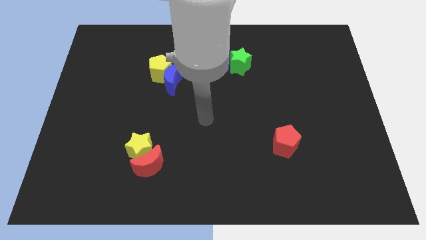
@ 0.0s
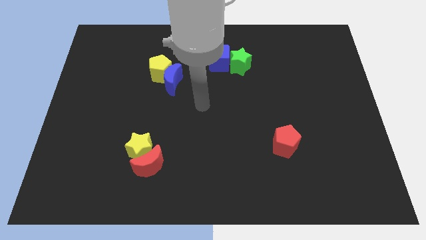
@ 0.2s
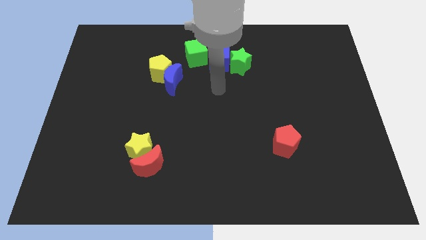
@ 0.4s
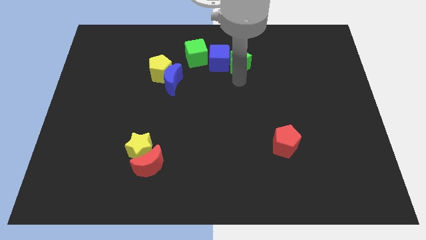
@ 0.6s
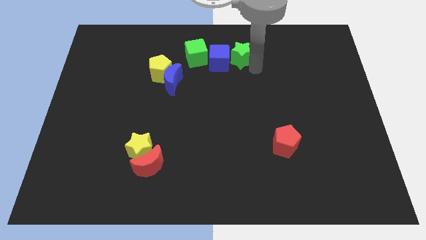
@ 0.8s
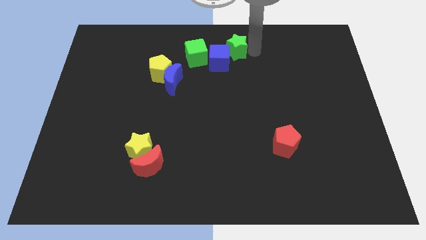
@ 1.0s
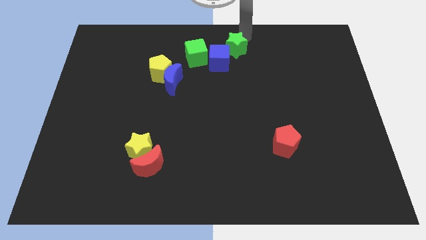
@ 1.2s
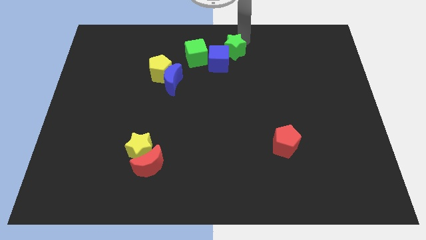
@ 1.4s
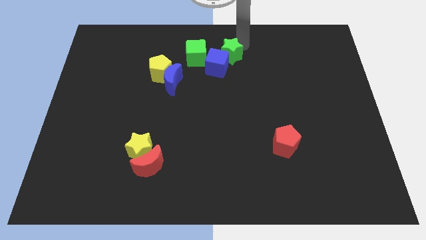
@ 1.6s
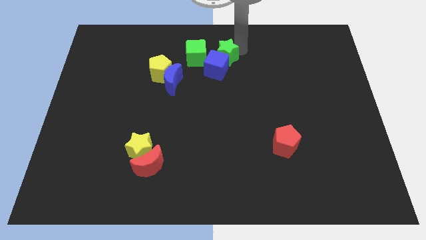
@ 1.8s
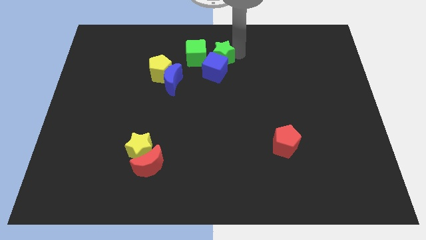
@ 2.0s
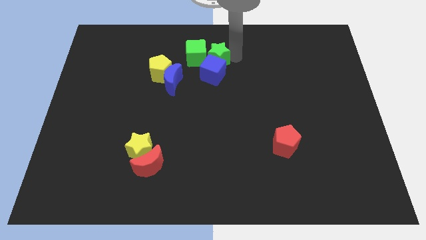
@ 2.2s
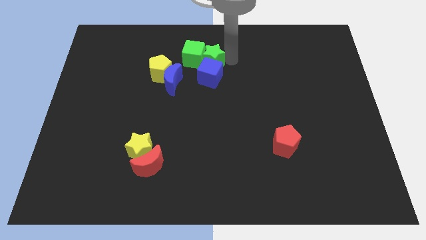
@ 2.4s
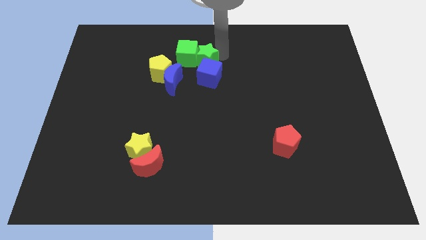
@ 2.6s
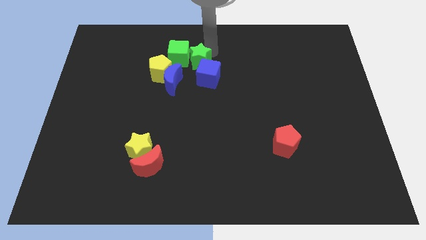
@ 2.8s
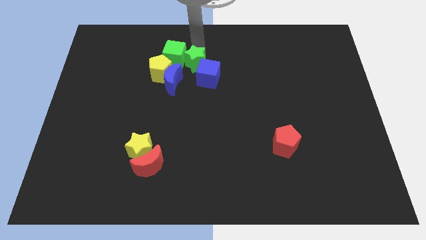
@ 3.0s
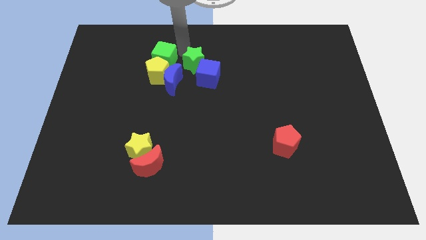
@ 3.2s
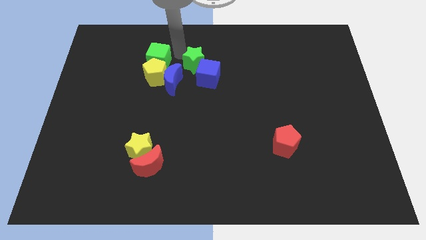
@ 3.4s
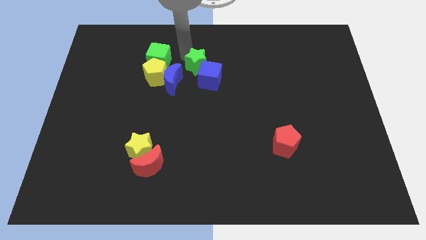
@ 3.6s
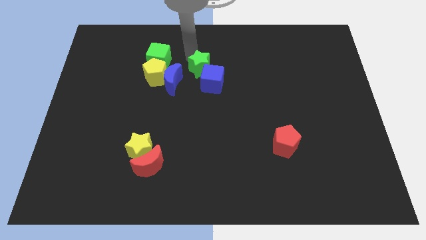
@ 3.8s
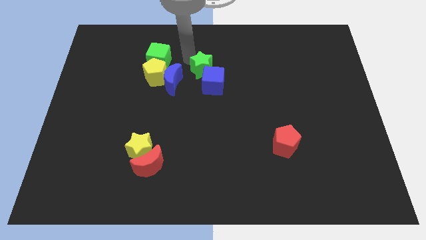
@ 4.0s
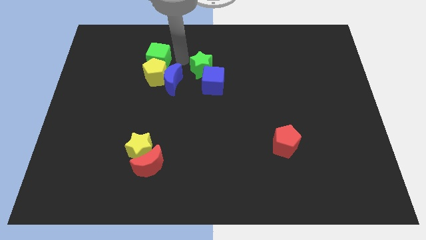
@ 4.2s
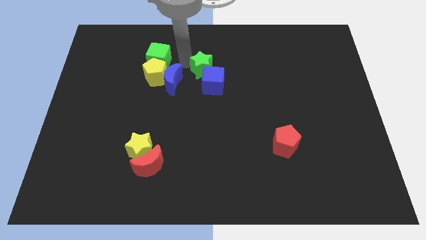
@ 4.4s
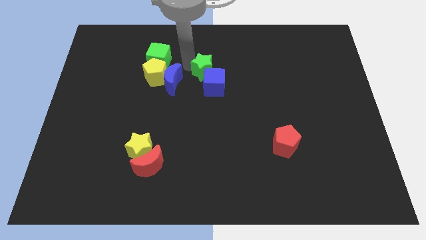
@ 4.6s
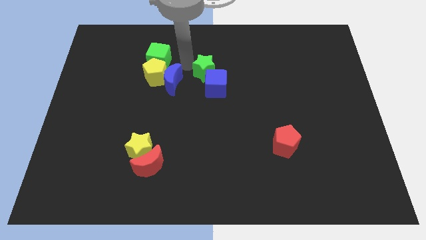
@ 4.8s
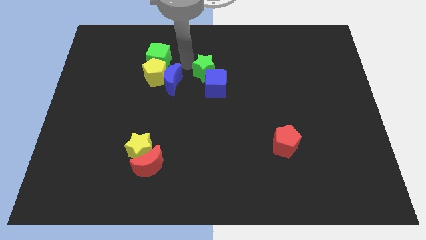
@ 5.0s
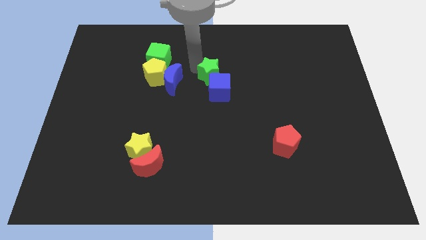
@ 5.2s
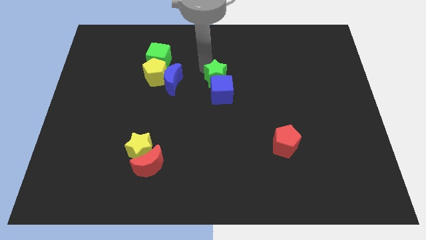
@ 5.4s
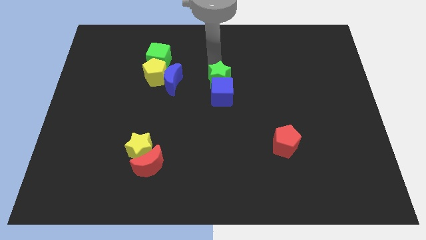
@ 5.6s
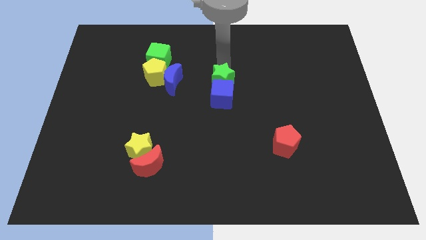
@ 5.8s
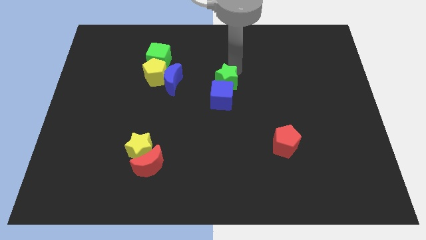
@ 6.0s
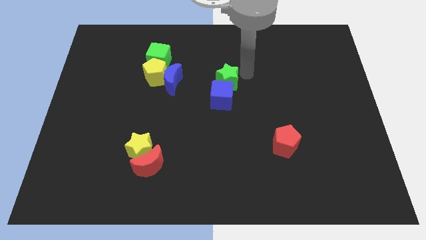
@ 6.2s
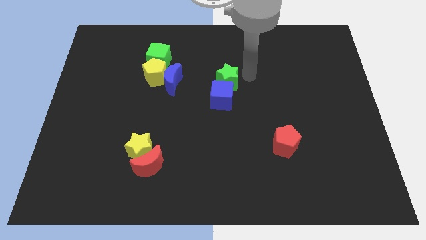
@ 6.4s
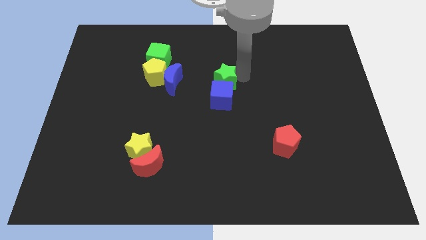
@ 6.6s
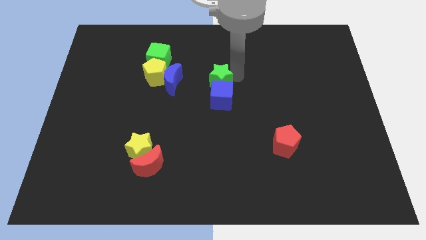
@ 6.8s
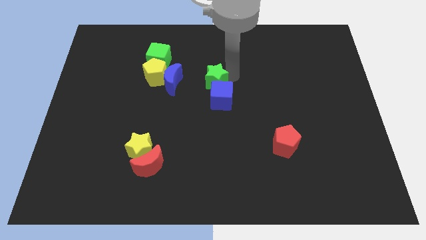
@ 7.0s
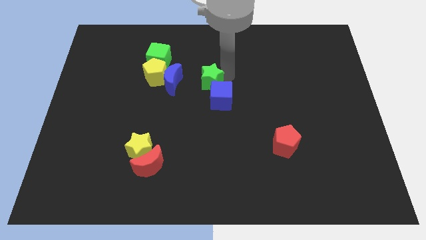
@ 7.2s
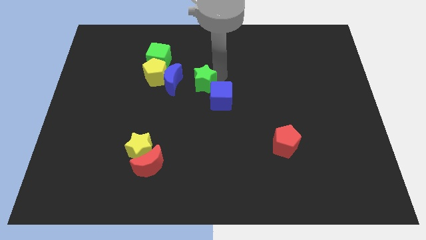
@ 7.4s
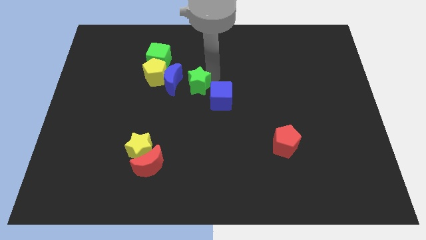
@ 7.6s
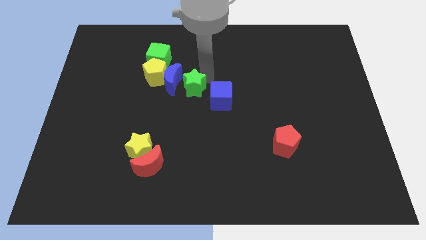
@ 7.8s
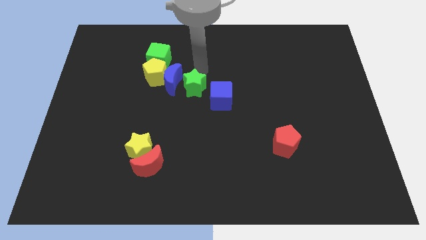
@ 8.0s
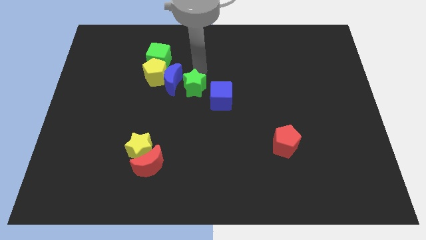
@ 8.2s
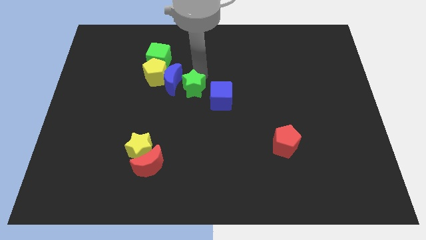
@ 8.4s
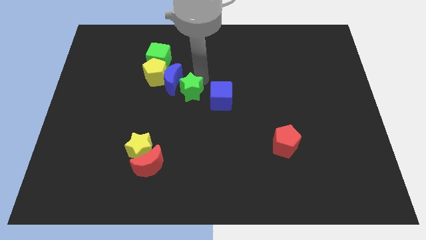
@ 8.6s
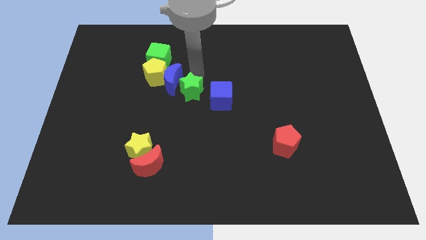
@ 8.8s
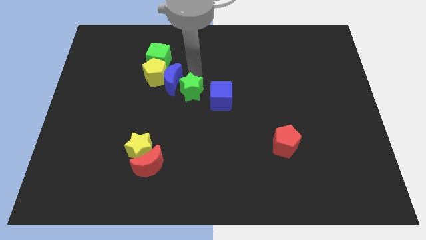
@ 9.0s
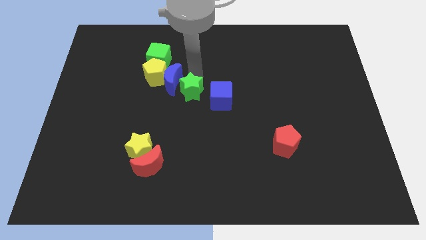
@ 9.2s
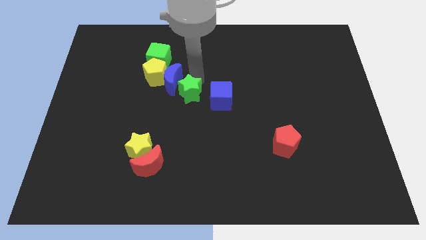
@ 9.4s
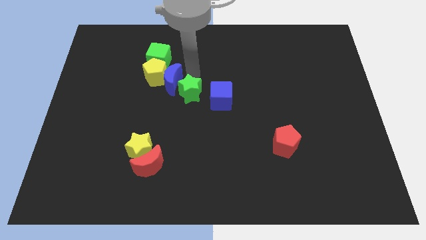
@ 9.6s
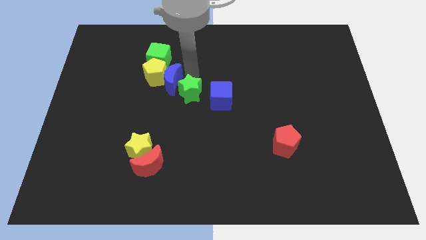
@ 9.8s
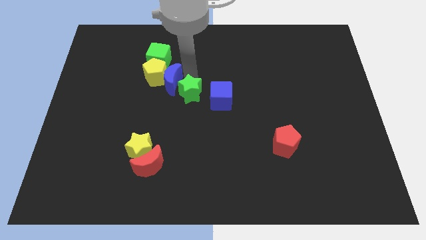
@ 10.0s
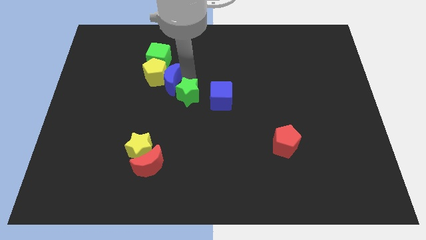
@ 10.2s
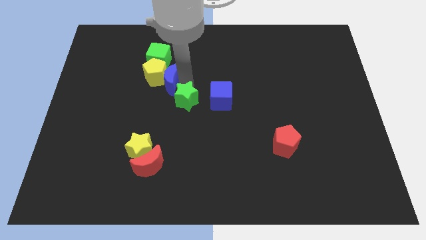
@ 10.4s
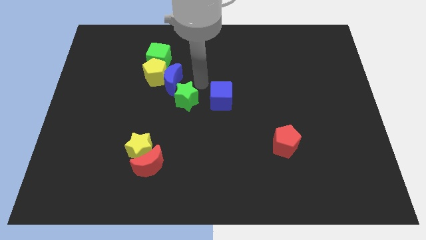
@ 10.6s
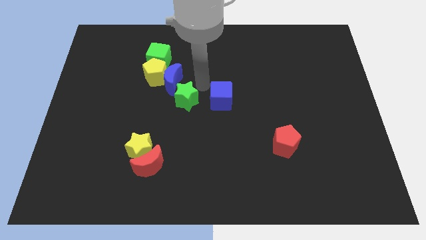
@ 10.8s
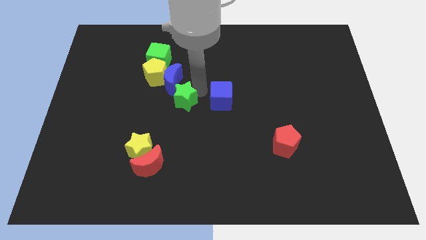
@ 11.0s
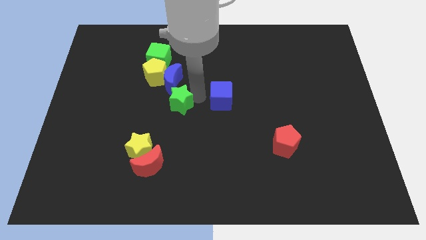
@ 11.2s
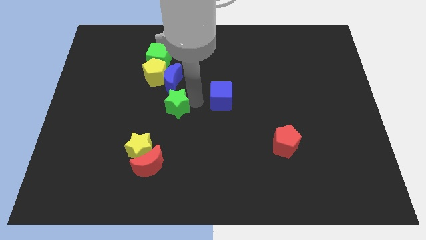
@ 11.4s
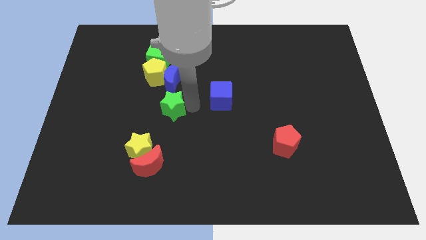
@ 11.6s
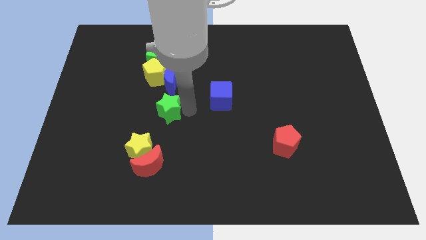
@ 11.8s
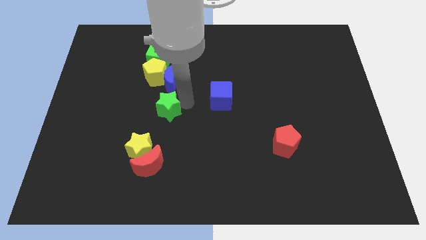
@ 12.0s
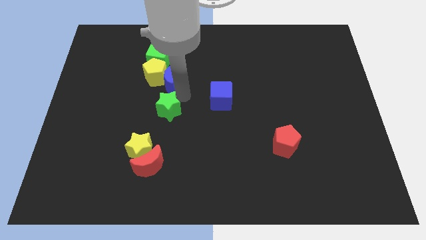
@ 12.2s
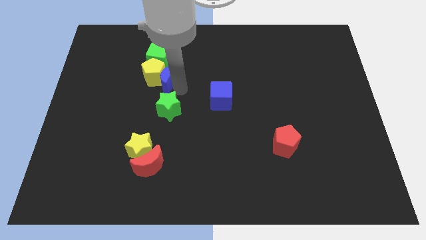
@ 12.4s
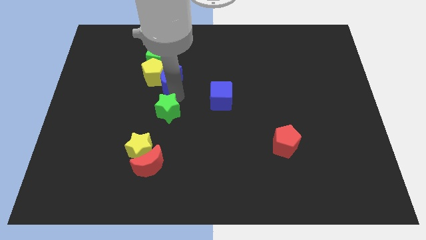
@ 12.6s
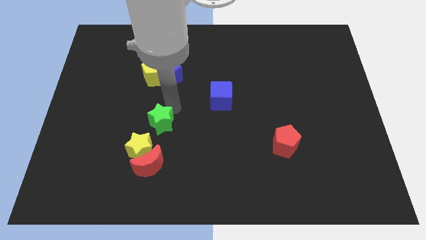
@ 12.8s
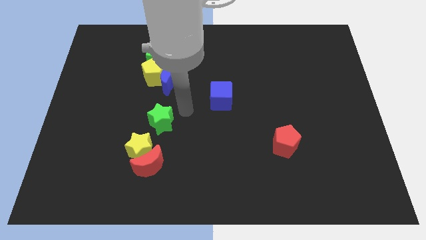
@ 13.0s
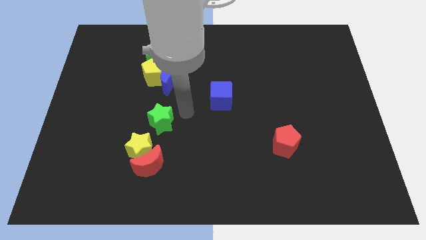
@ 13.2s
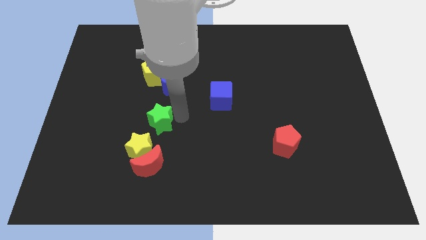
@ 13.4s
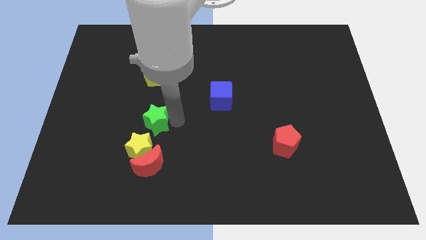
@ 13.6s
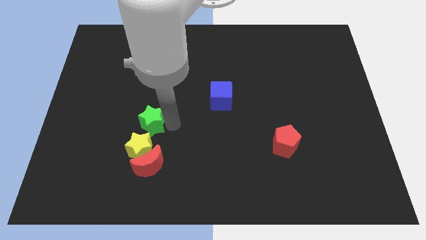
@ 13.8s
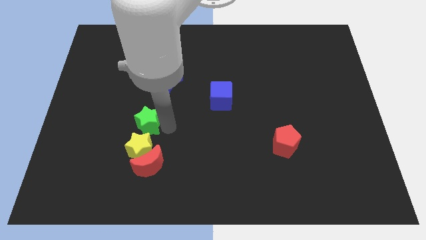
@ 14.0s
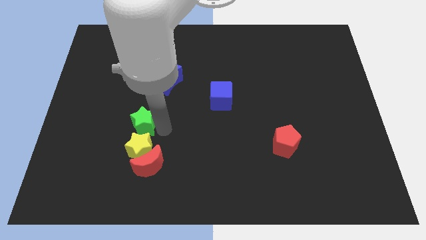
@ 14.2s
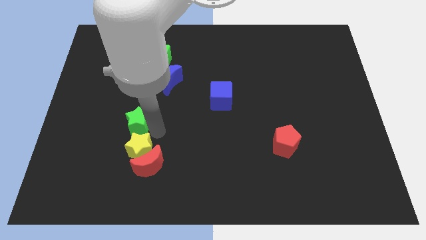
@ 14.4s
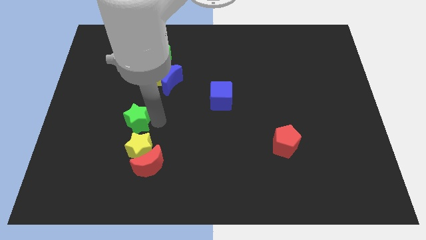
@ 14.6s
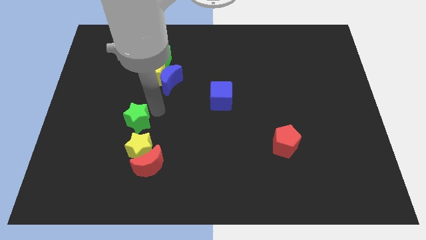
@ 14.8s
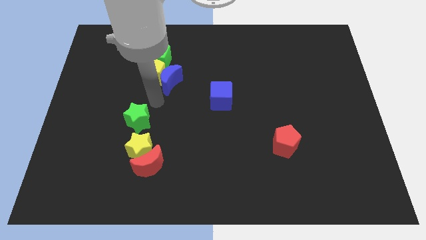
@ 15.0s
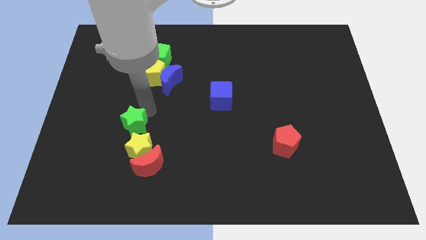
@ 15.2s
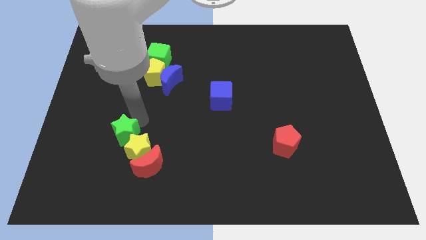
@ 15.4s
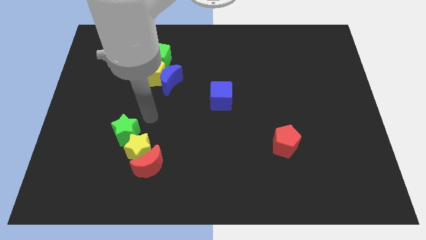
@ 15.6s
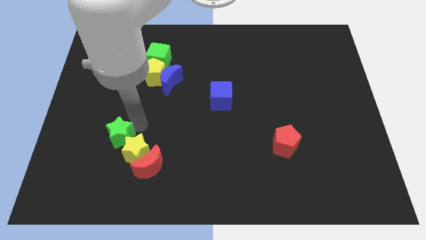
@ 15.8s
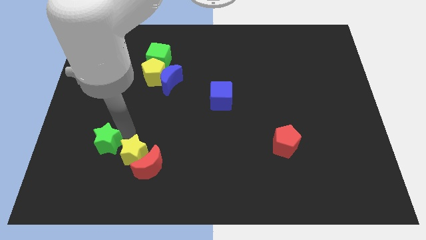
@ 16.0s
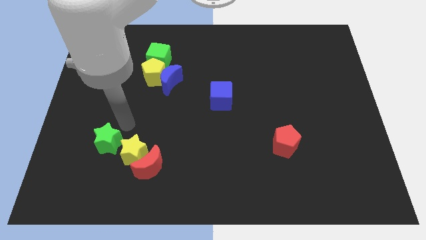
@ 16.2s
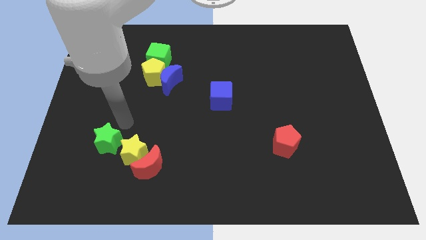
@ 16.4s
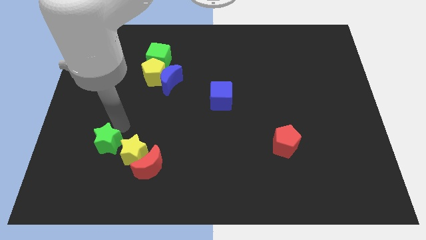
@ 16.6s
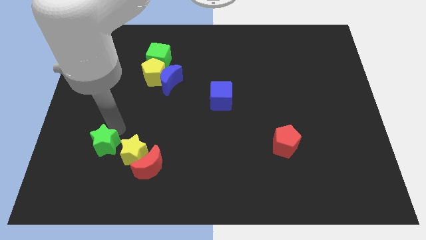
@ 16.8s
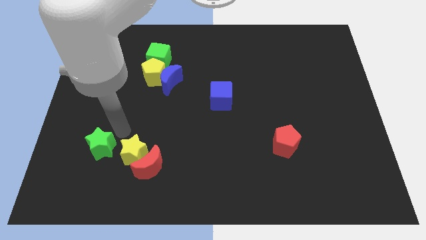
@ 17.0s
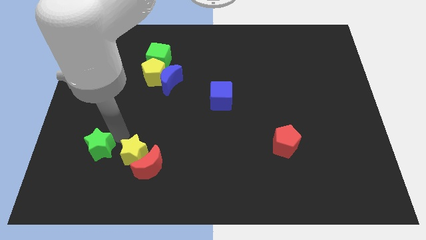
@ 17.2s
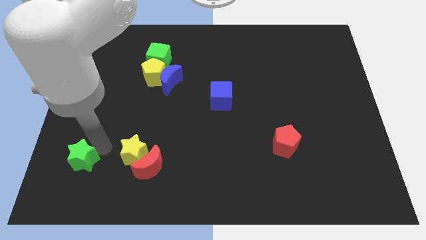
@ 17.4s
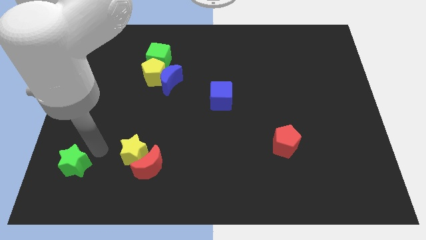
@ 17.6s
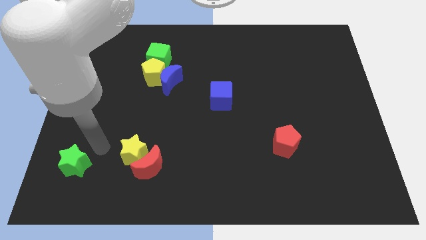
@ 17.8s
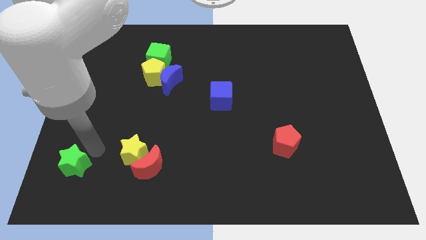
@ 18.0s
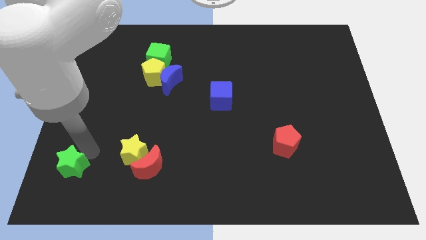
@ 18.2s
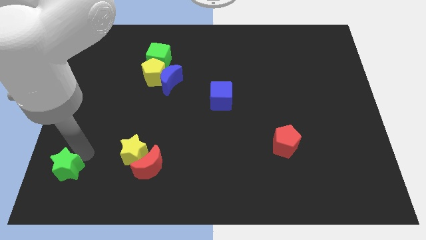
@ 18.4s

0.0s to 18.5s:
move the green star to the bottom left of the board
